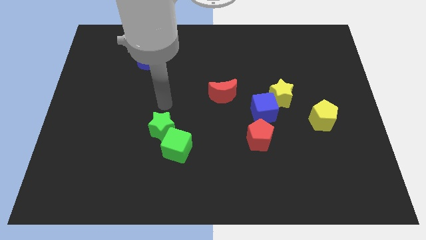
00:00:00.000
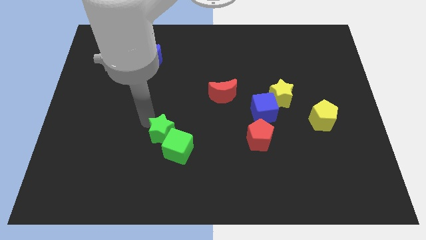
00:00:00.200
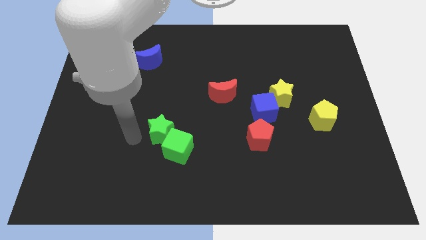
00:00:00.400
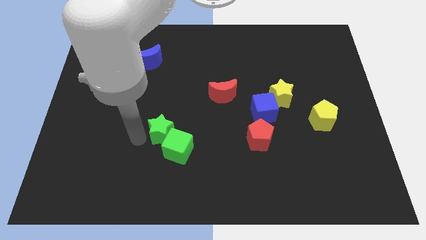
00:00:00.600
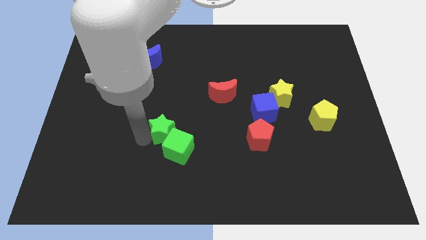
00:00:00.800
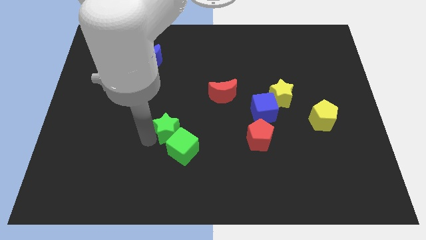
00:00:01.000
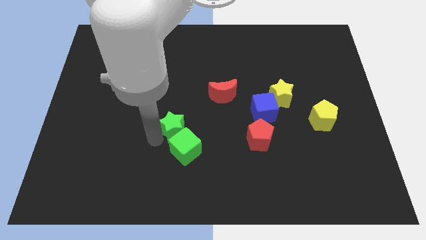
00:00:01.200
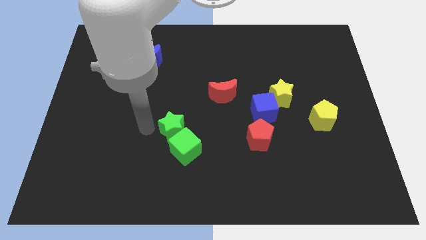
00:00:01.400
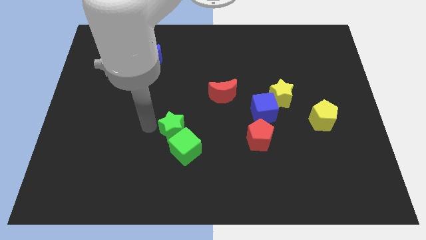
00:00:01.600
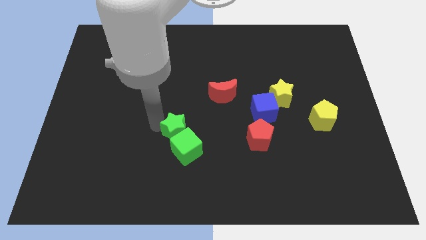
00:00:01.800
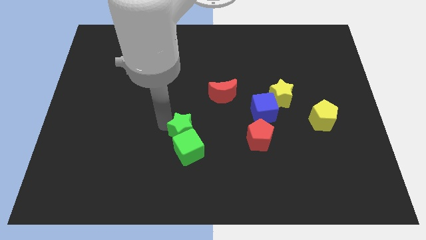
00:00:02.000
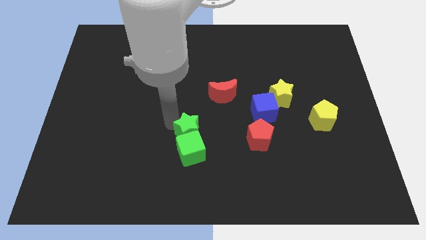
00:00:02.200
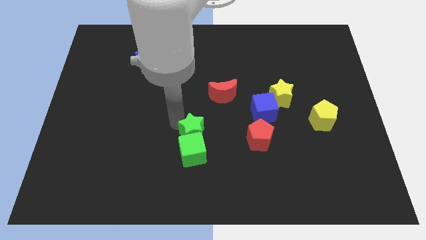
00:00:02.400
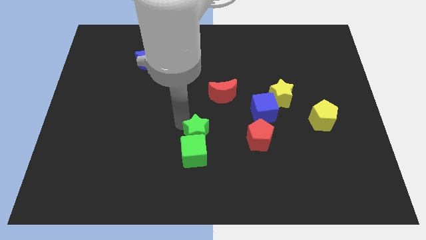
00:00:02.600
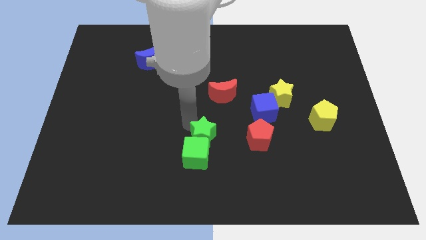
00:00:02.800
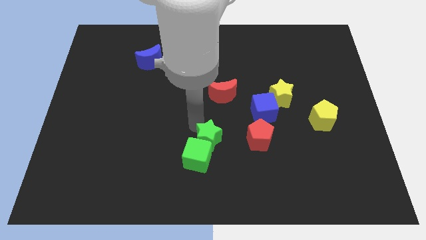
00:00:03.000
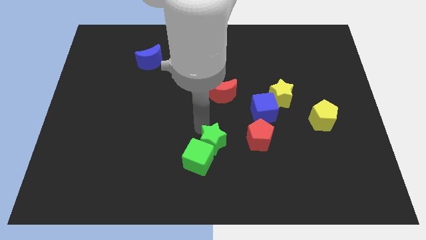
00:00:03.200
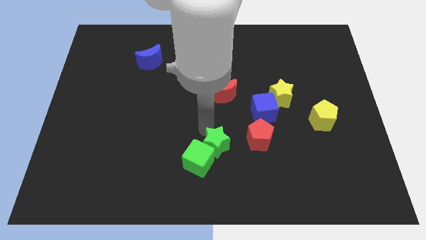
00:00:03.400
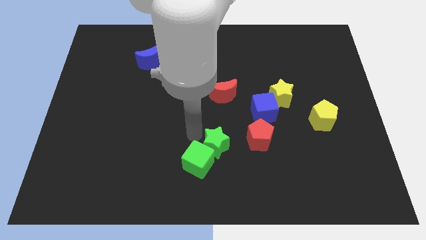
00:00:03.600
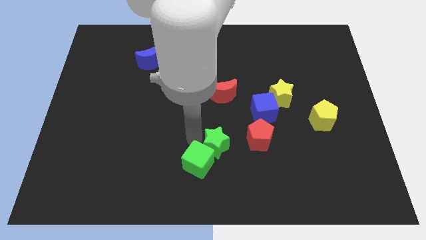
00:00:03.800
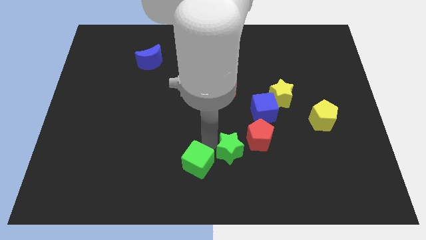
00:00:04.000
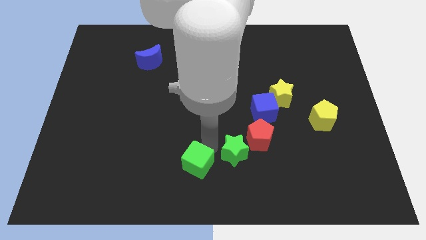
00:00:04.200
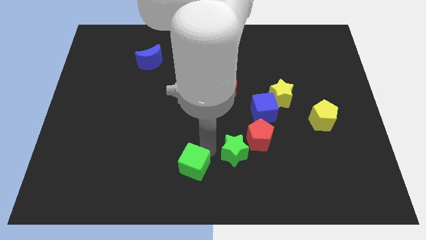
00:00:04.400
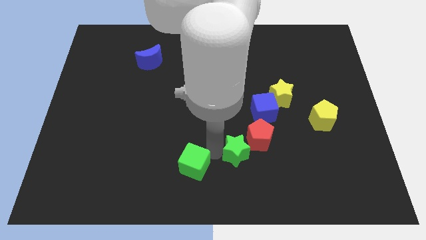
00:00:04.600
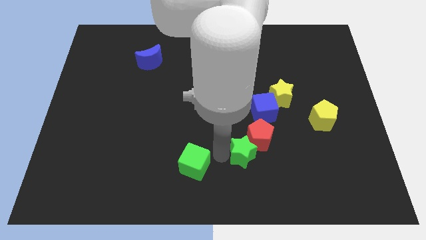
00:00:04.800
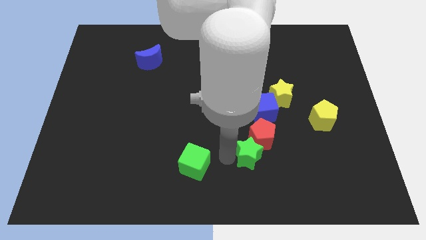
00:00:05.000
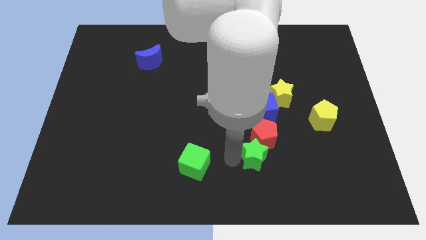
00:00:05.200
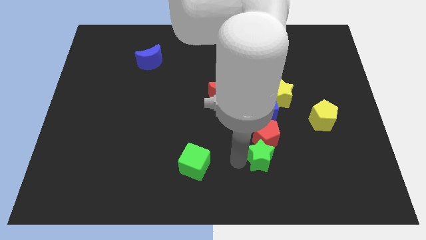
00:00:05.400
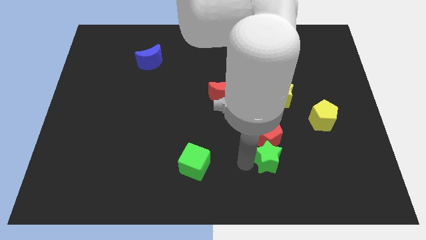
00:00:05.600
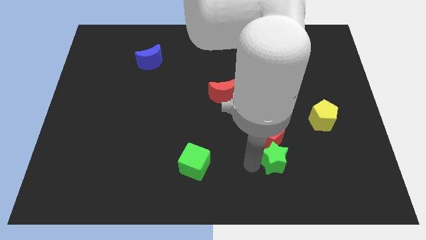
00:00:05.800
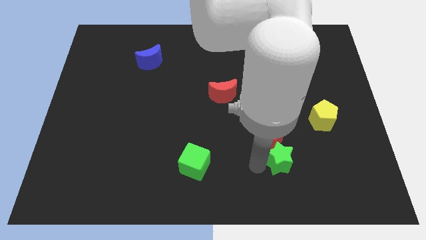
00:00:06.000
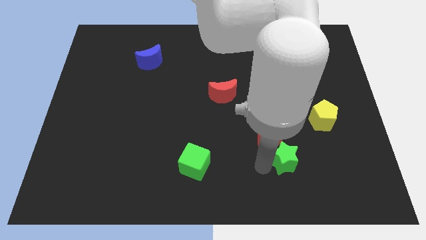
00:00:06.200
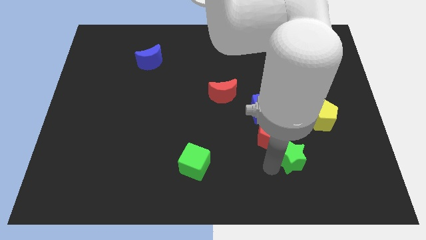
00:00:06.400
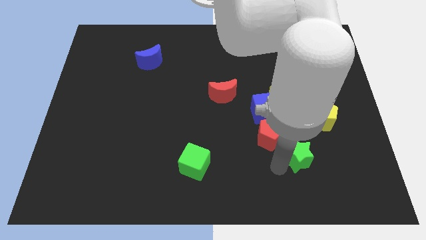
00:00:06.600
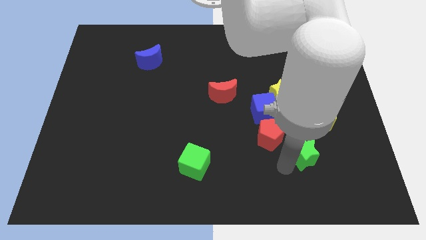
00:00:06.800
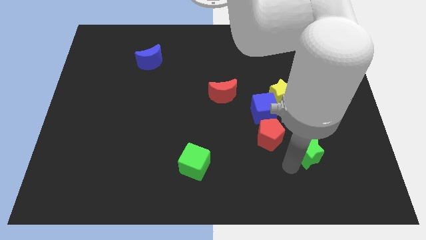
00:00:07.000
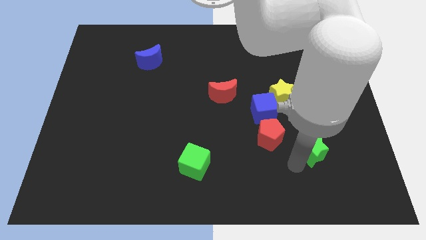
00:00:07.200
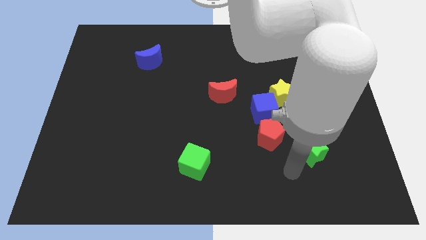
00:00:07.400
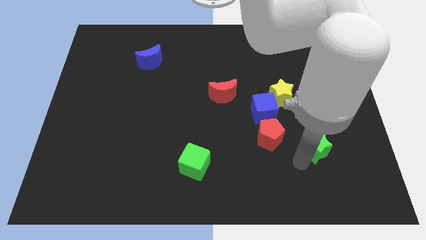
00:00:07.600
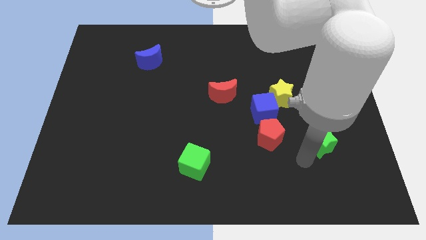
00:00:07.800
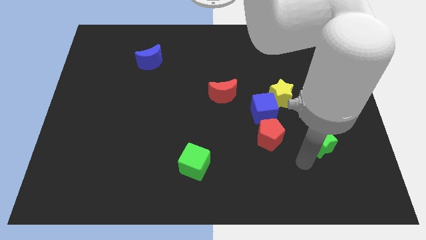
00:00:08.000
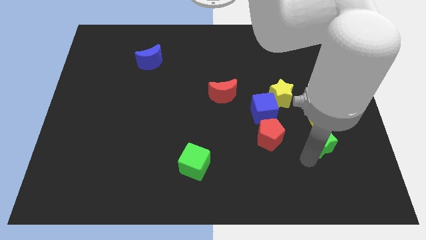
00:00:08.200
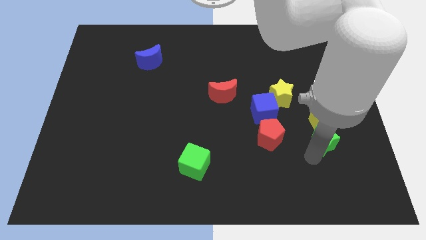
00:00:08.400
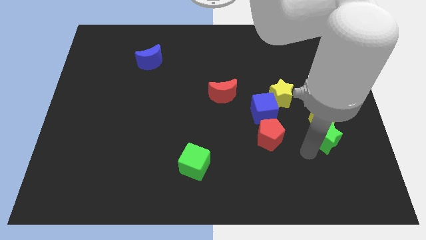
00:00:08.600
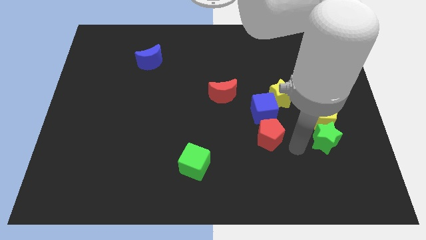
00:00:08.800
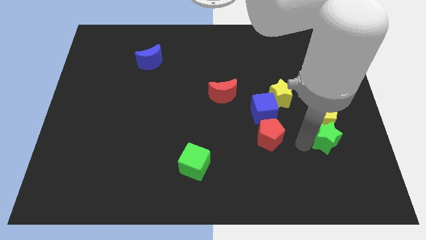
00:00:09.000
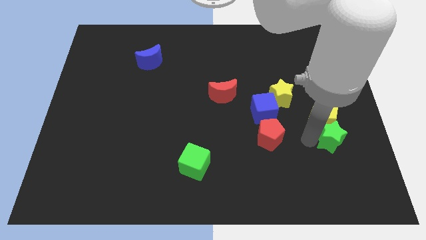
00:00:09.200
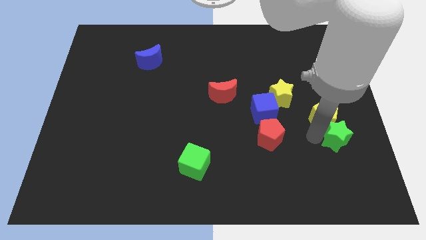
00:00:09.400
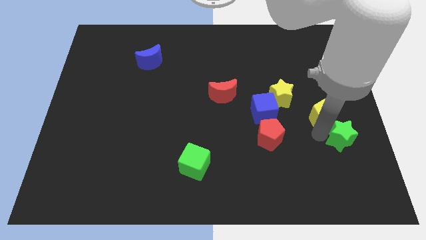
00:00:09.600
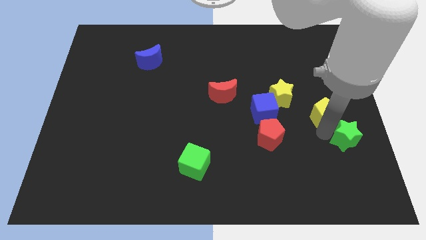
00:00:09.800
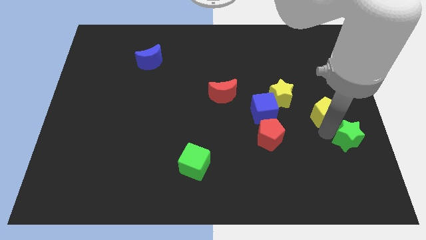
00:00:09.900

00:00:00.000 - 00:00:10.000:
slide the green star to the center right

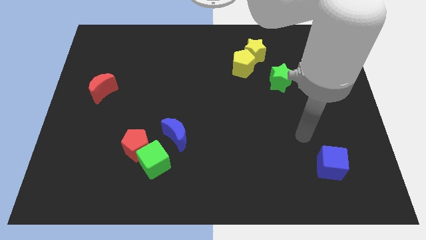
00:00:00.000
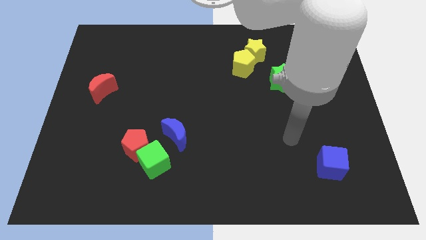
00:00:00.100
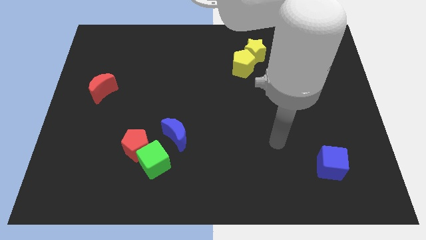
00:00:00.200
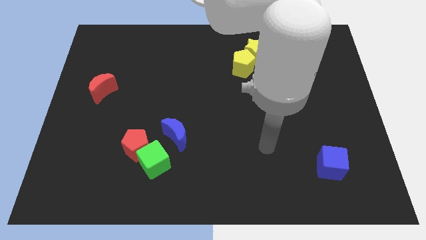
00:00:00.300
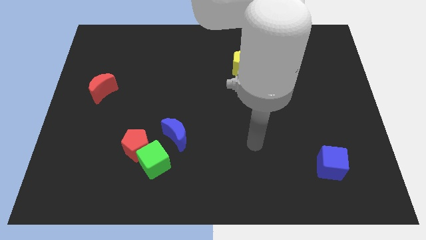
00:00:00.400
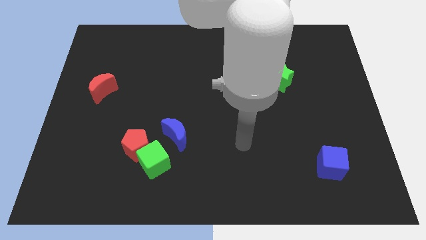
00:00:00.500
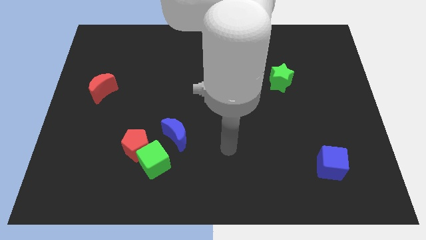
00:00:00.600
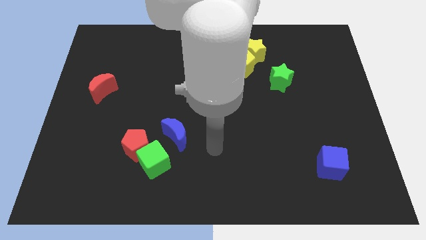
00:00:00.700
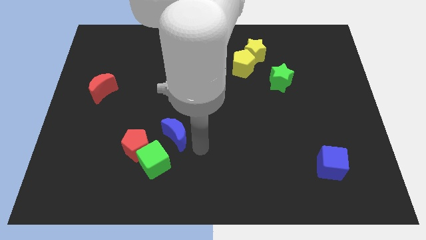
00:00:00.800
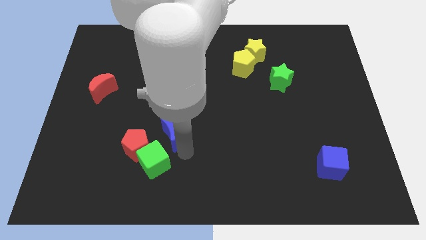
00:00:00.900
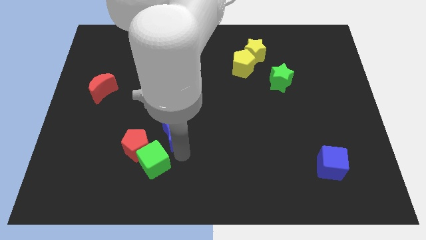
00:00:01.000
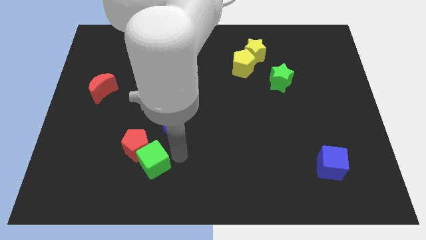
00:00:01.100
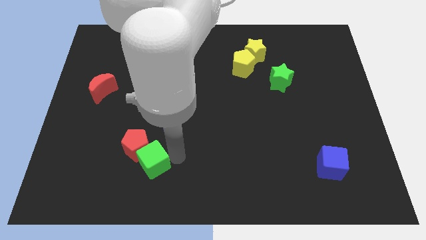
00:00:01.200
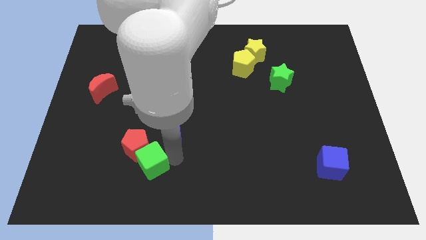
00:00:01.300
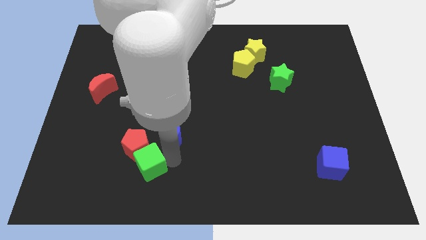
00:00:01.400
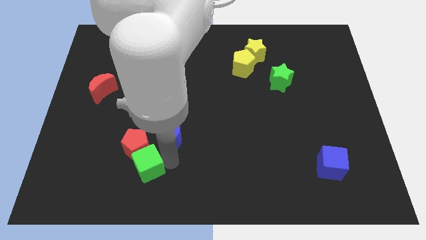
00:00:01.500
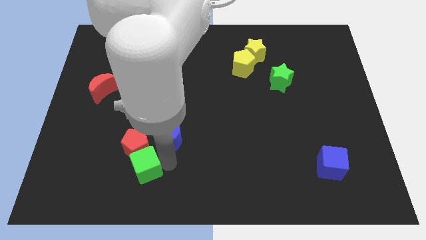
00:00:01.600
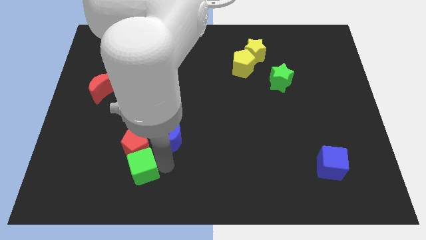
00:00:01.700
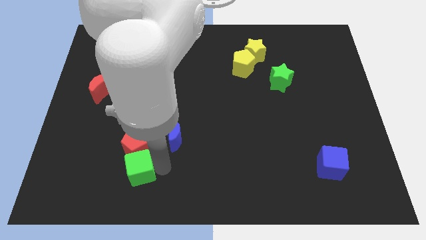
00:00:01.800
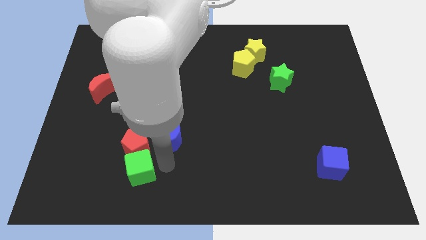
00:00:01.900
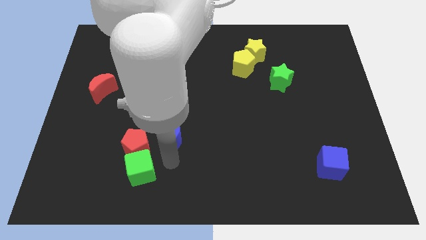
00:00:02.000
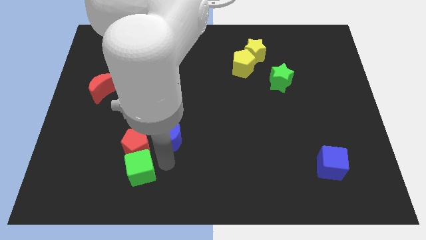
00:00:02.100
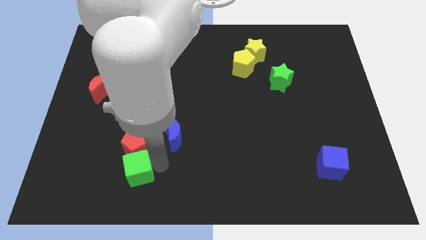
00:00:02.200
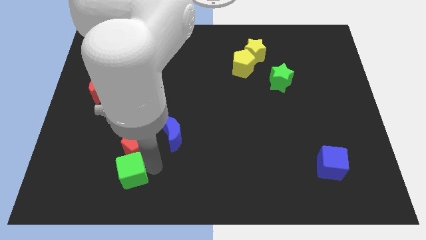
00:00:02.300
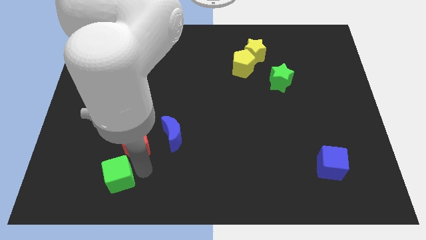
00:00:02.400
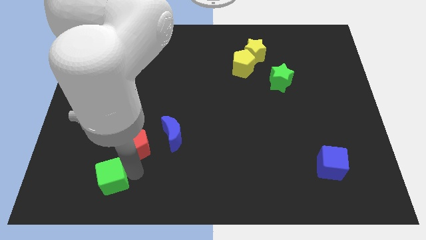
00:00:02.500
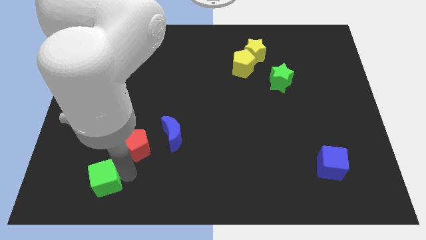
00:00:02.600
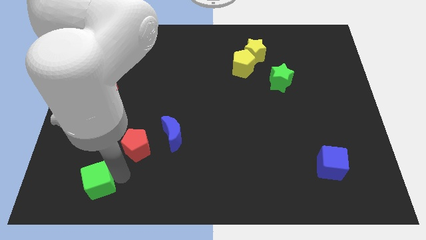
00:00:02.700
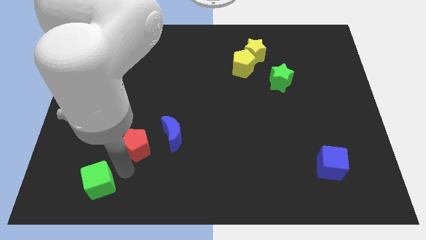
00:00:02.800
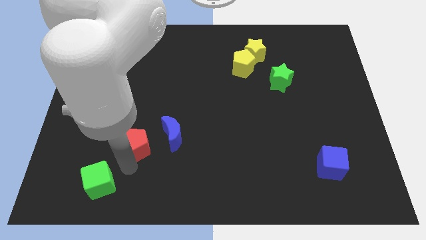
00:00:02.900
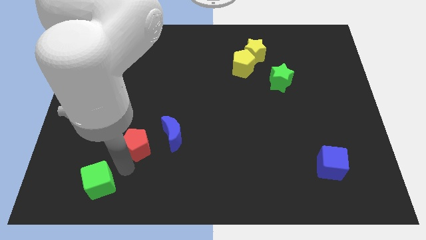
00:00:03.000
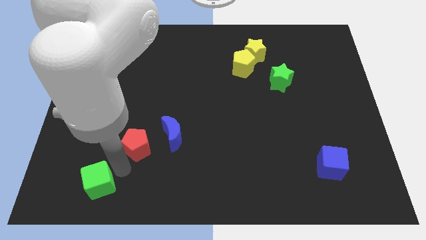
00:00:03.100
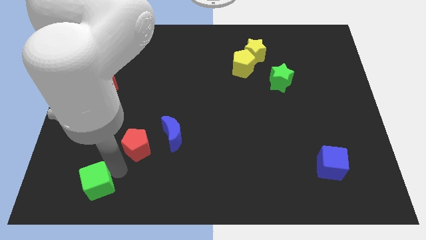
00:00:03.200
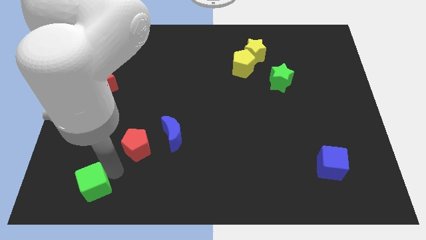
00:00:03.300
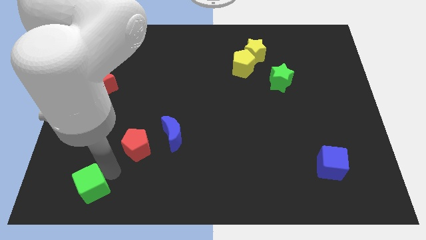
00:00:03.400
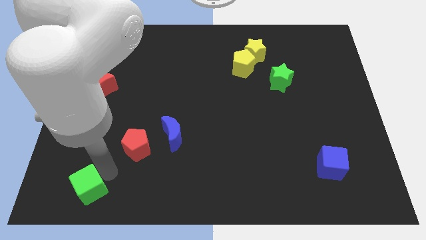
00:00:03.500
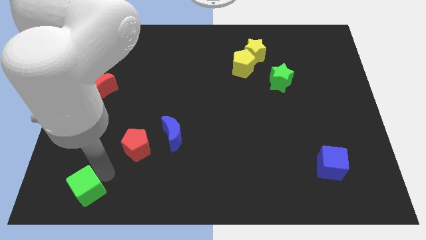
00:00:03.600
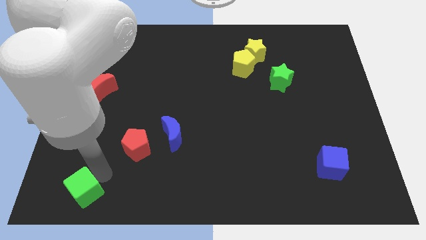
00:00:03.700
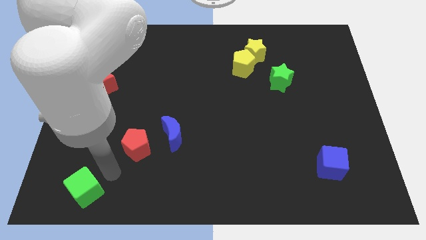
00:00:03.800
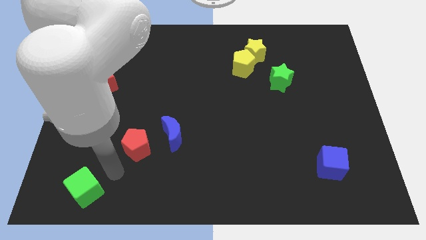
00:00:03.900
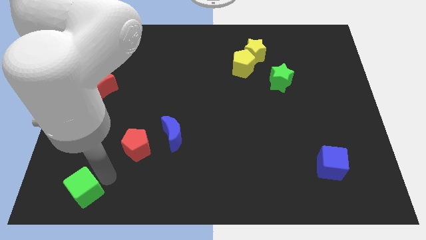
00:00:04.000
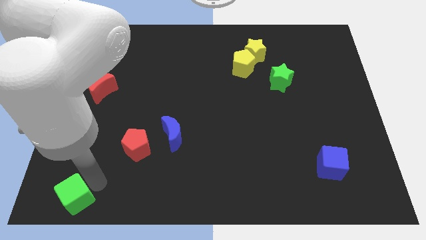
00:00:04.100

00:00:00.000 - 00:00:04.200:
push the green cube to the bottom left of the board
